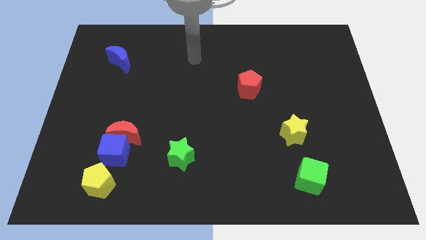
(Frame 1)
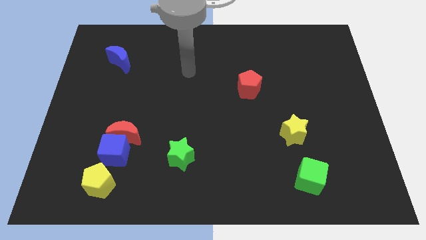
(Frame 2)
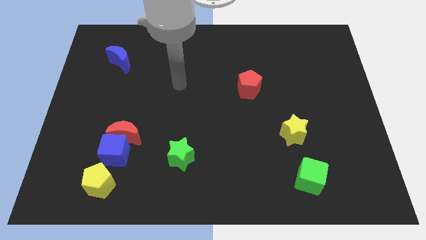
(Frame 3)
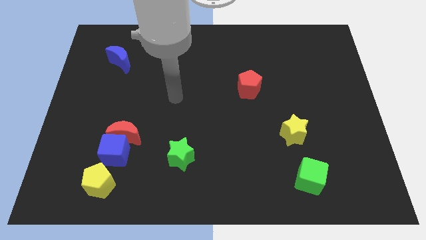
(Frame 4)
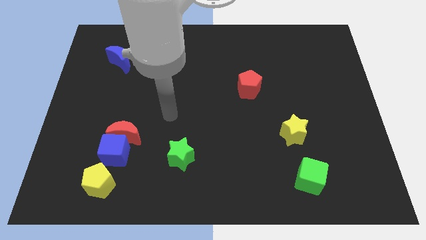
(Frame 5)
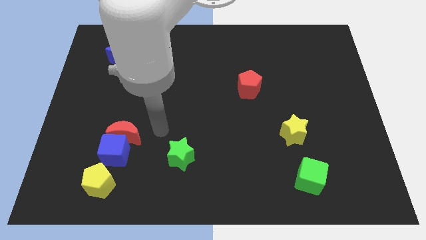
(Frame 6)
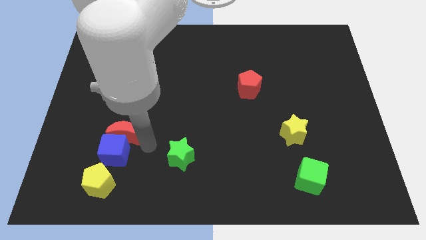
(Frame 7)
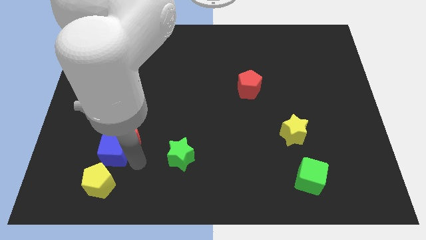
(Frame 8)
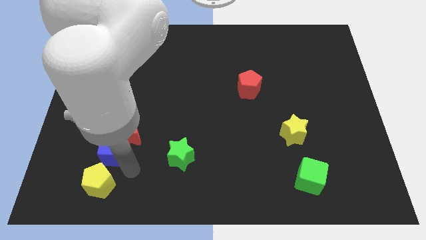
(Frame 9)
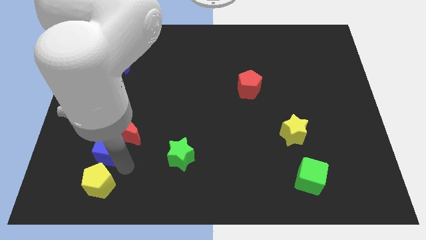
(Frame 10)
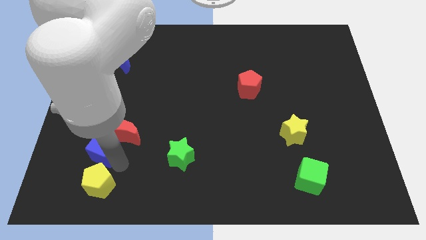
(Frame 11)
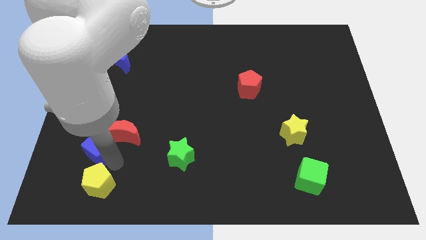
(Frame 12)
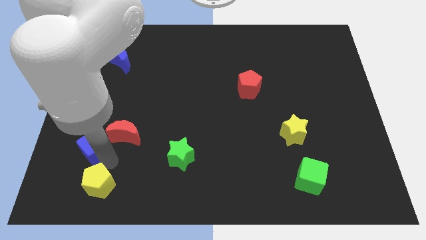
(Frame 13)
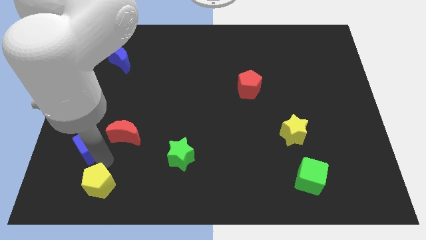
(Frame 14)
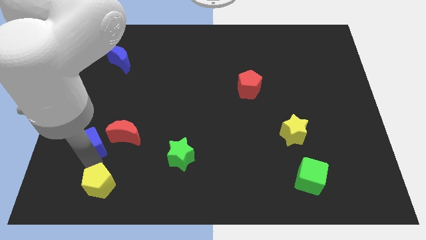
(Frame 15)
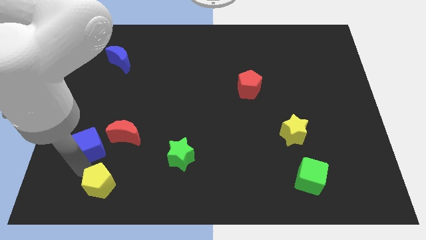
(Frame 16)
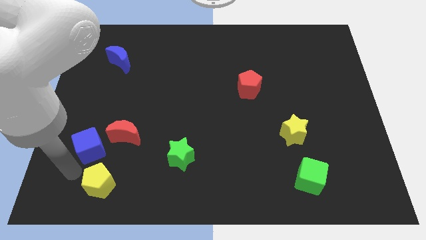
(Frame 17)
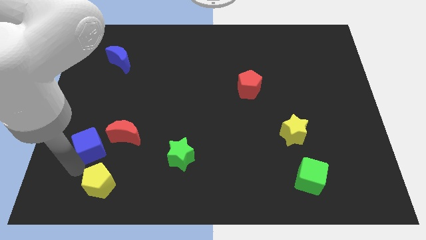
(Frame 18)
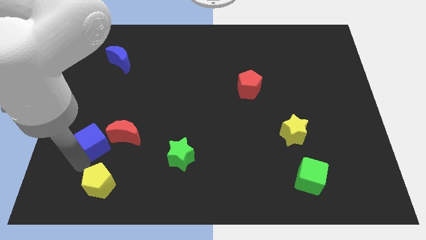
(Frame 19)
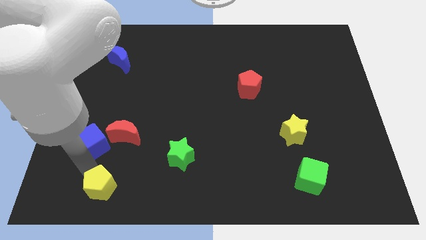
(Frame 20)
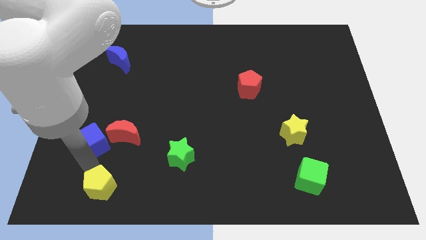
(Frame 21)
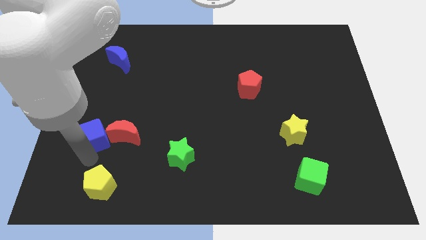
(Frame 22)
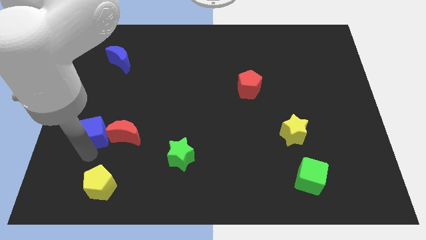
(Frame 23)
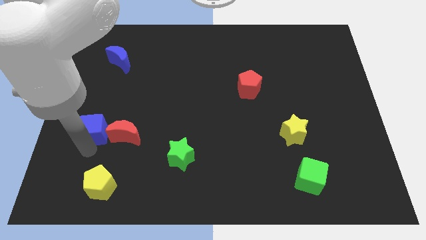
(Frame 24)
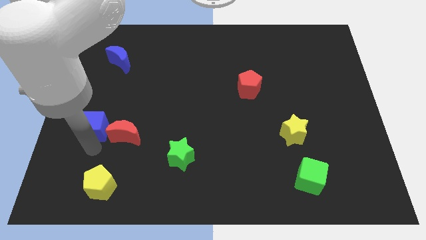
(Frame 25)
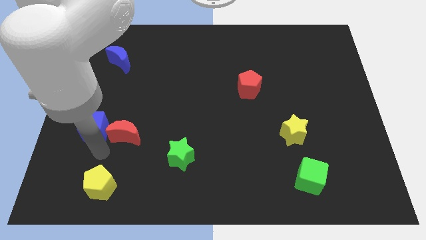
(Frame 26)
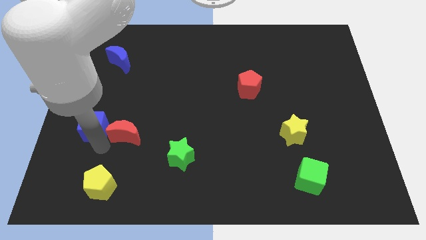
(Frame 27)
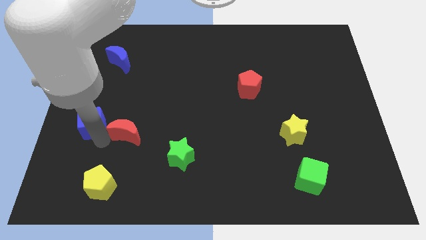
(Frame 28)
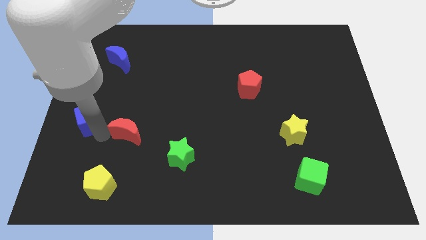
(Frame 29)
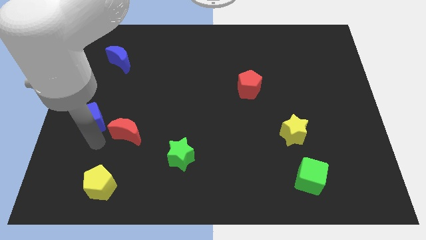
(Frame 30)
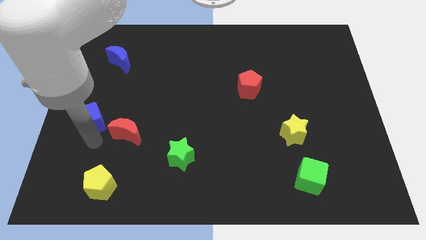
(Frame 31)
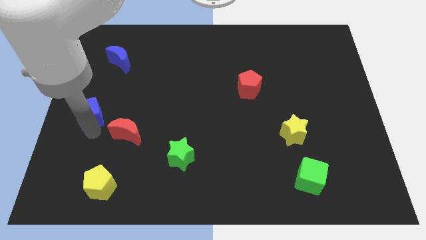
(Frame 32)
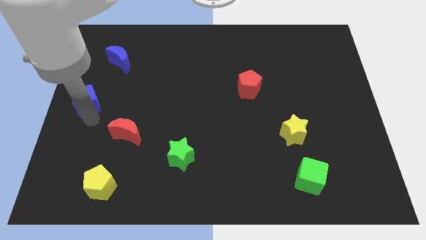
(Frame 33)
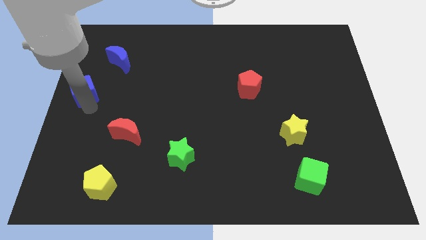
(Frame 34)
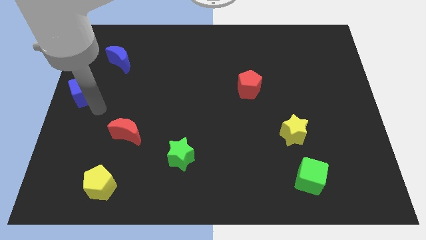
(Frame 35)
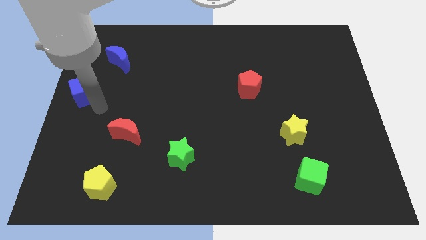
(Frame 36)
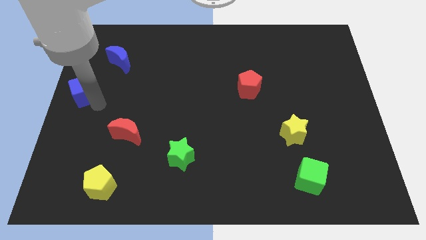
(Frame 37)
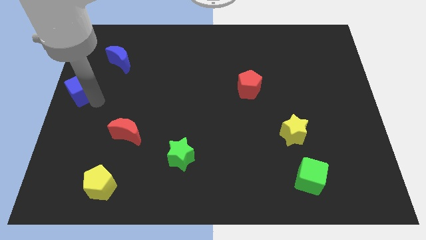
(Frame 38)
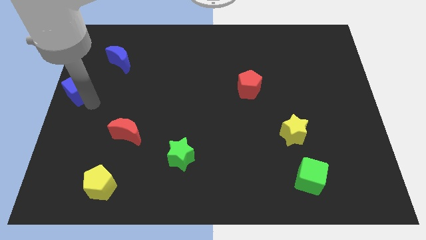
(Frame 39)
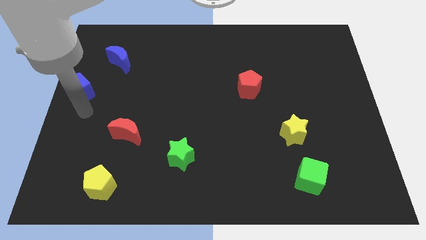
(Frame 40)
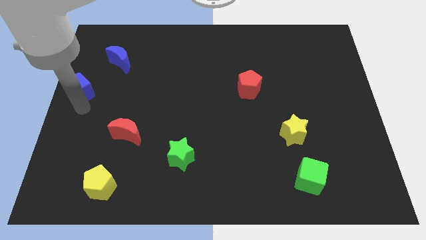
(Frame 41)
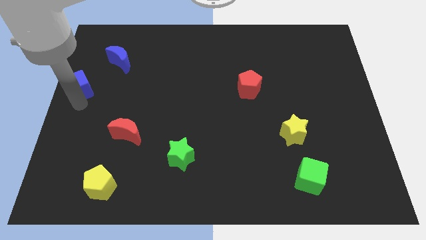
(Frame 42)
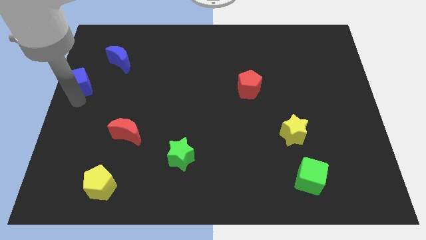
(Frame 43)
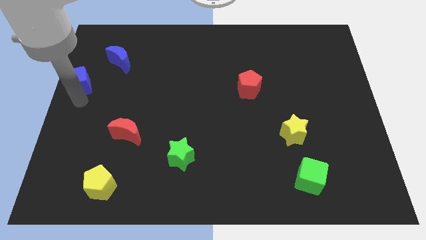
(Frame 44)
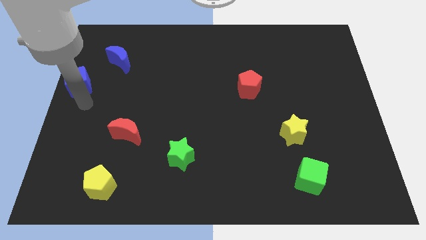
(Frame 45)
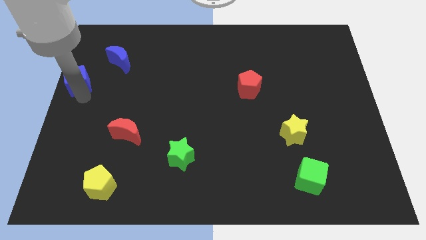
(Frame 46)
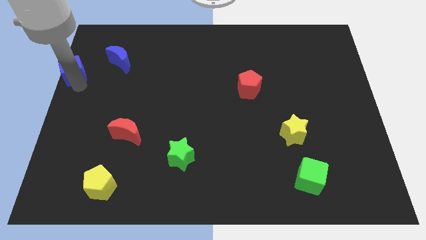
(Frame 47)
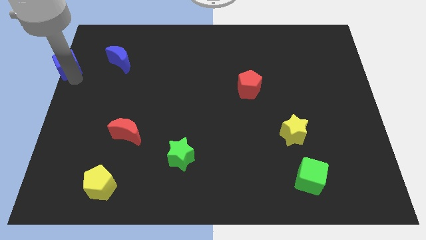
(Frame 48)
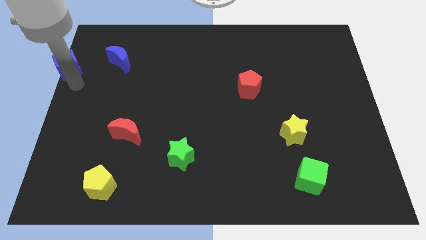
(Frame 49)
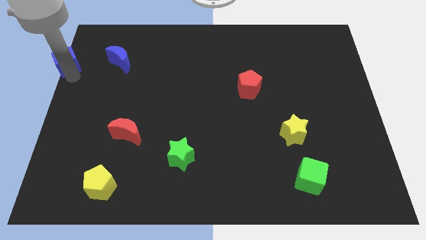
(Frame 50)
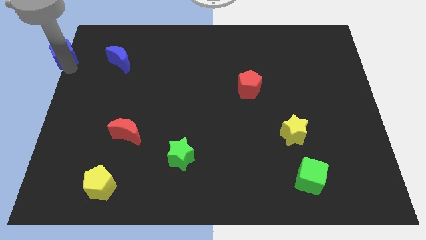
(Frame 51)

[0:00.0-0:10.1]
put the blue cube to the top left corner

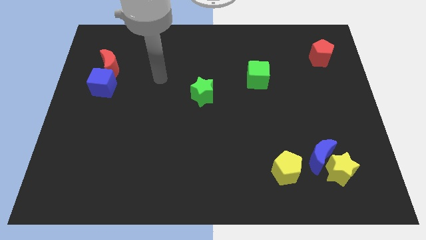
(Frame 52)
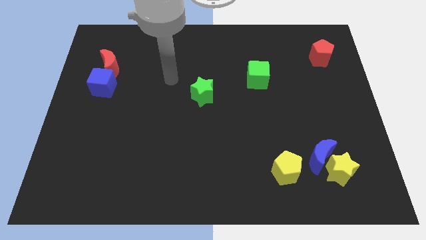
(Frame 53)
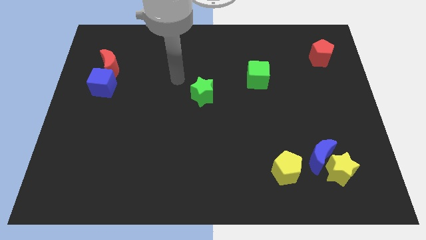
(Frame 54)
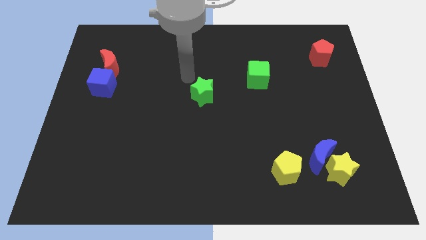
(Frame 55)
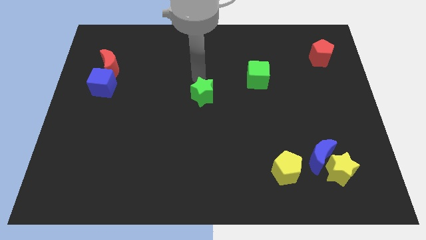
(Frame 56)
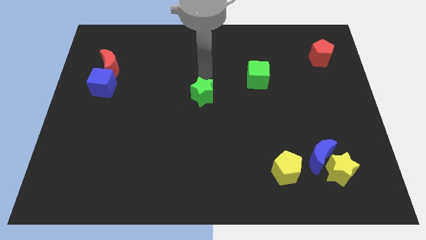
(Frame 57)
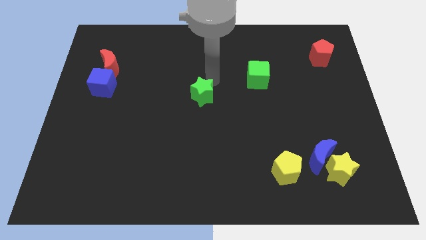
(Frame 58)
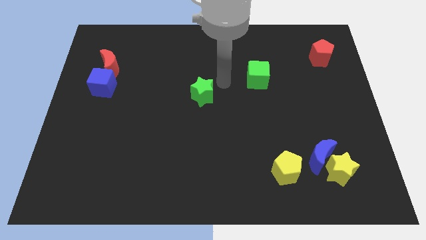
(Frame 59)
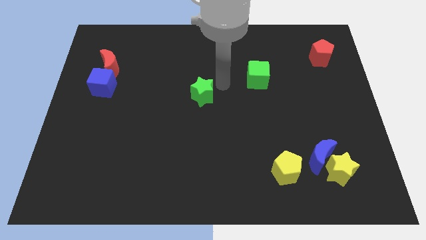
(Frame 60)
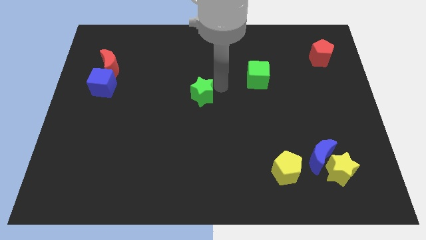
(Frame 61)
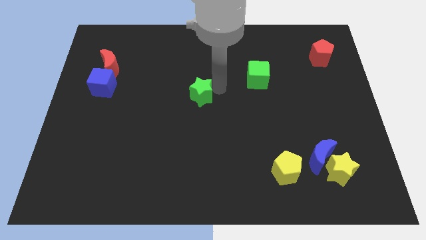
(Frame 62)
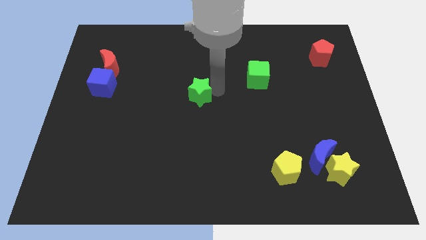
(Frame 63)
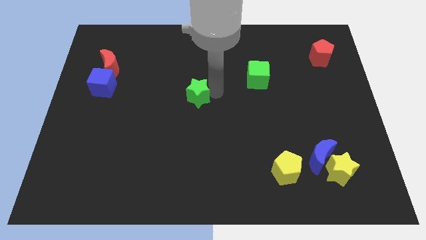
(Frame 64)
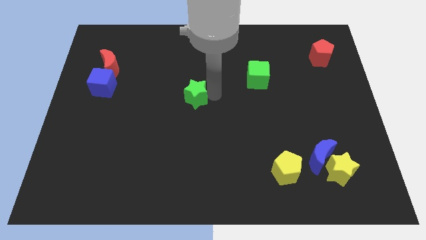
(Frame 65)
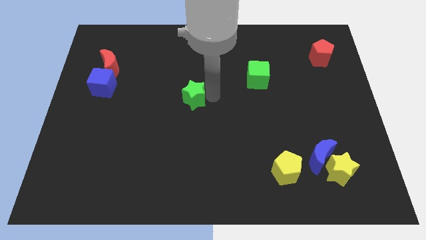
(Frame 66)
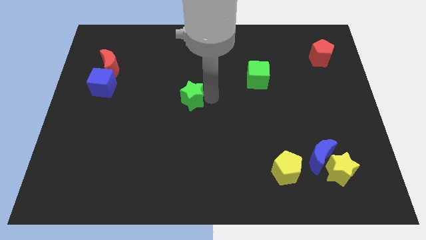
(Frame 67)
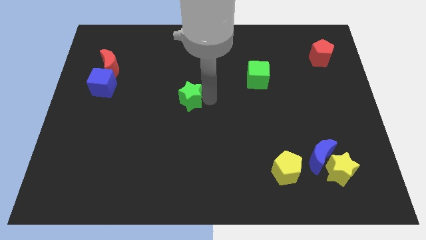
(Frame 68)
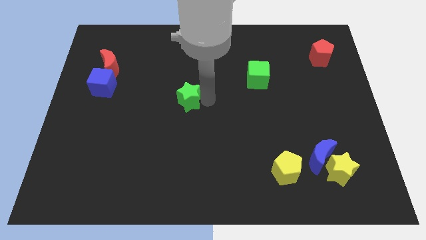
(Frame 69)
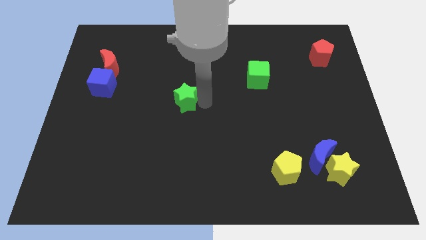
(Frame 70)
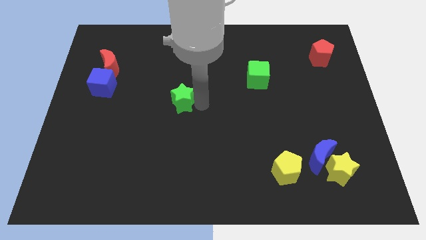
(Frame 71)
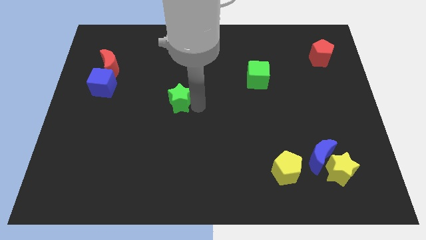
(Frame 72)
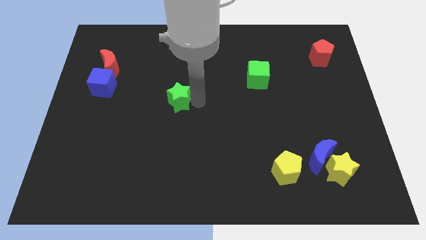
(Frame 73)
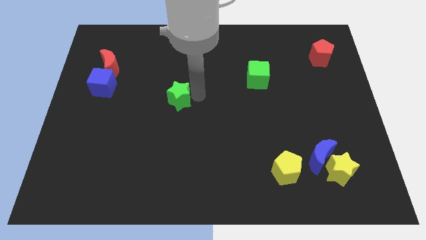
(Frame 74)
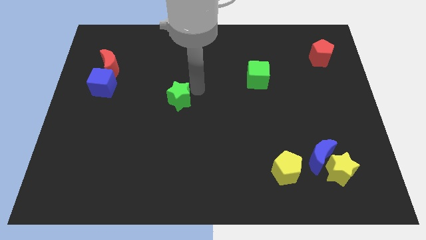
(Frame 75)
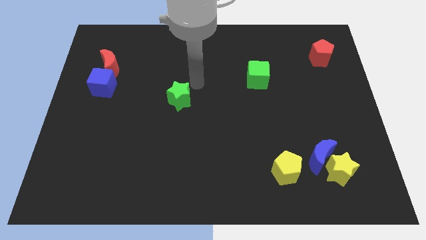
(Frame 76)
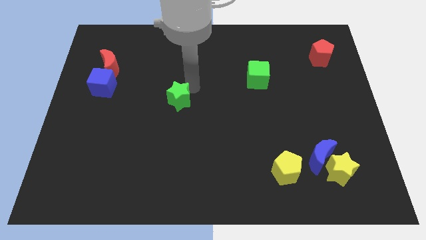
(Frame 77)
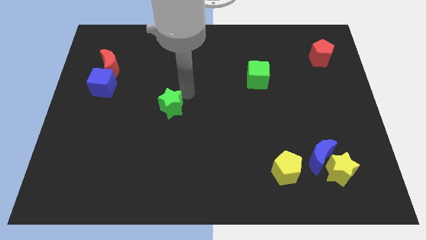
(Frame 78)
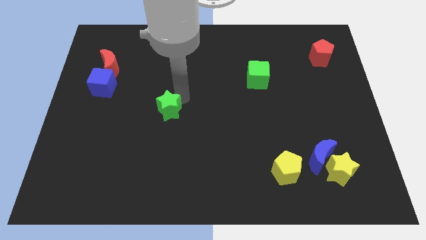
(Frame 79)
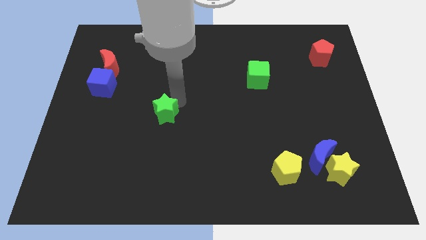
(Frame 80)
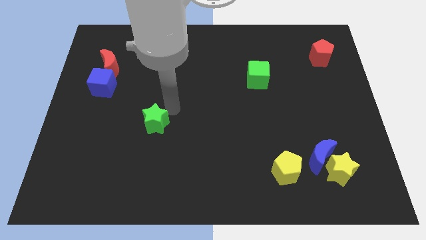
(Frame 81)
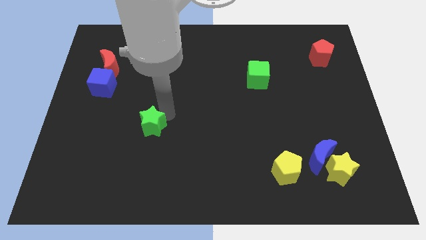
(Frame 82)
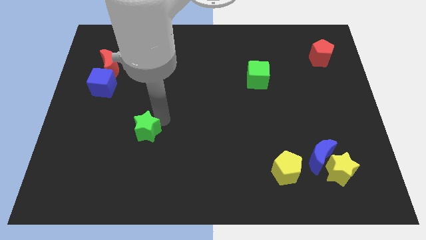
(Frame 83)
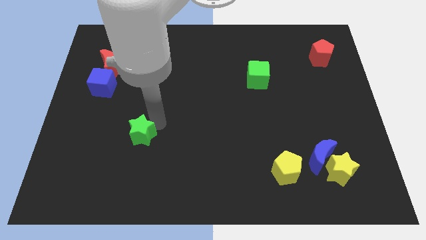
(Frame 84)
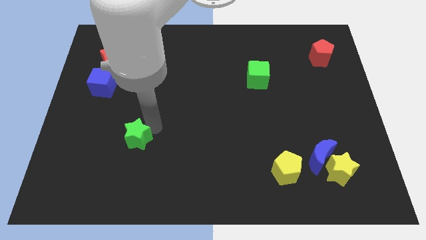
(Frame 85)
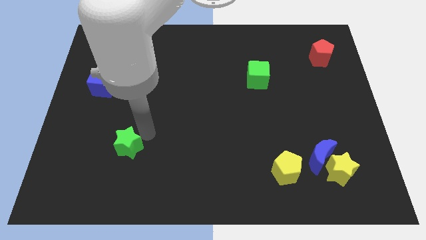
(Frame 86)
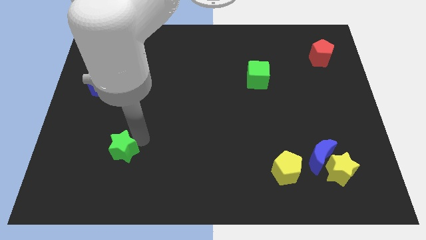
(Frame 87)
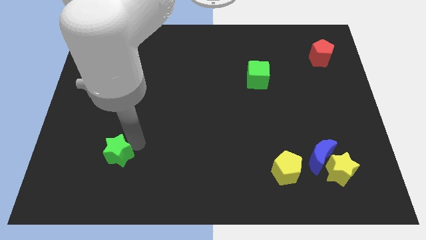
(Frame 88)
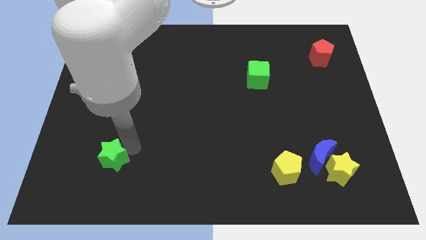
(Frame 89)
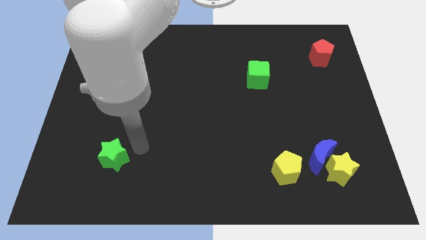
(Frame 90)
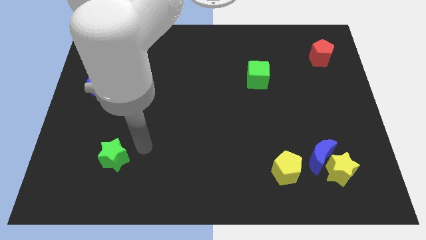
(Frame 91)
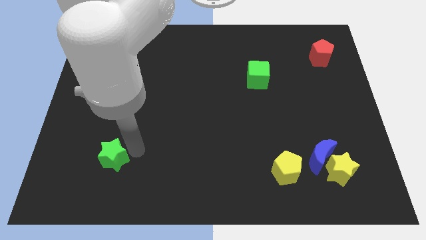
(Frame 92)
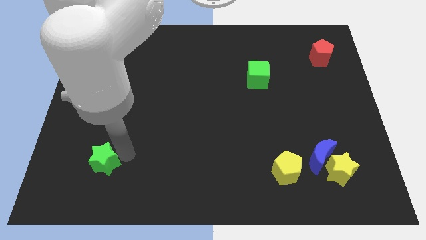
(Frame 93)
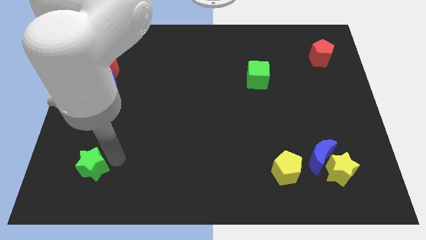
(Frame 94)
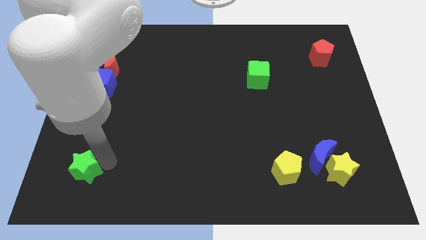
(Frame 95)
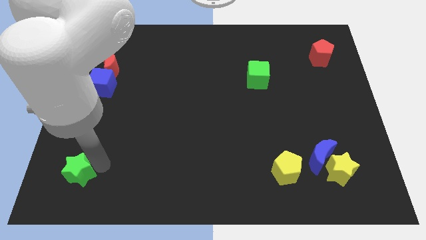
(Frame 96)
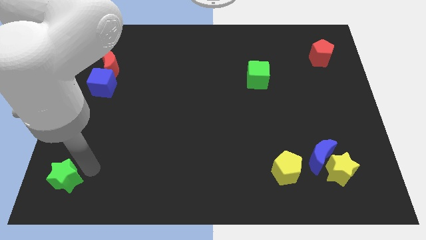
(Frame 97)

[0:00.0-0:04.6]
move the green star to the bottom left of the board
